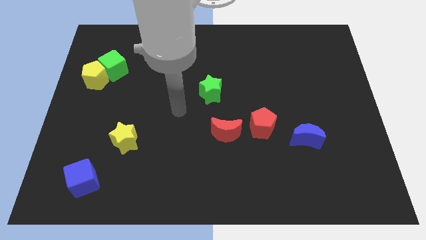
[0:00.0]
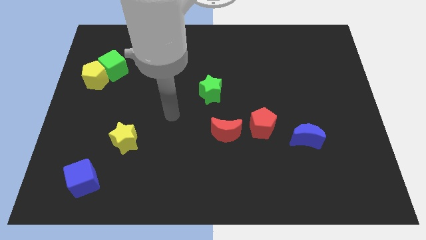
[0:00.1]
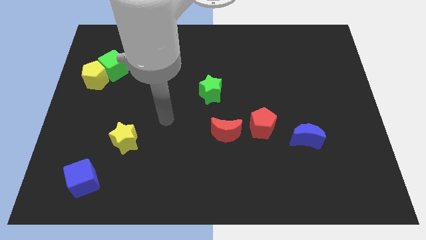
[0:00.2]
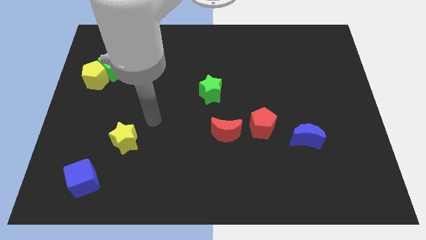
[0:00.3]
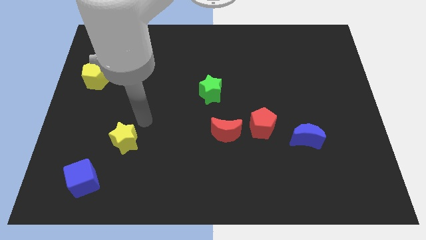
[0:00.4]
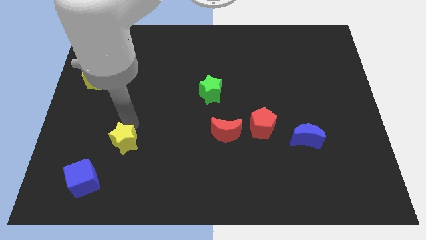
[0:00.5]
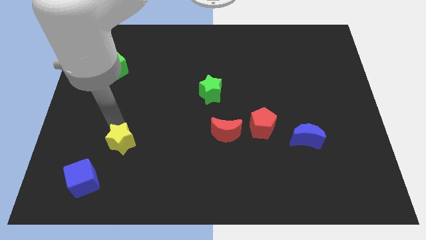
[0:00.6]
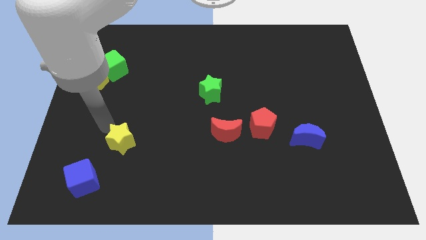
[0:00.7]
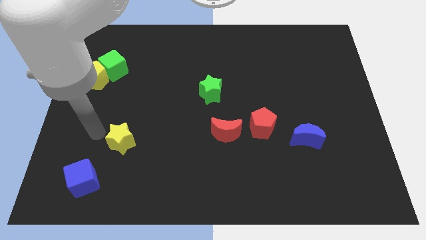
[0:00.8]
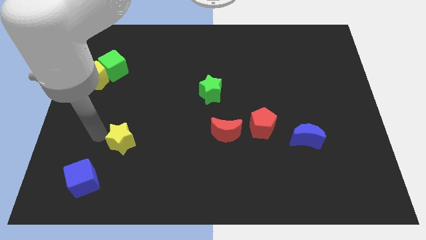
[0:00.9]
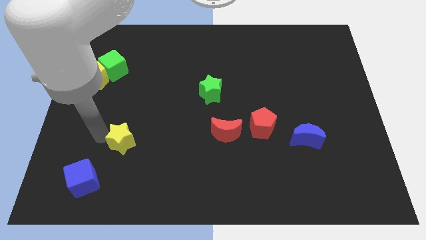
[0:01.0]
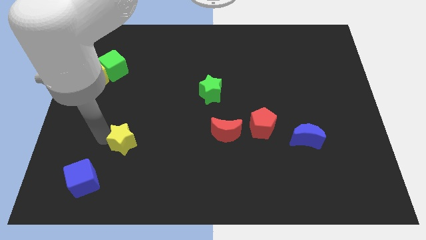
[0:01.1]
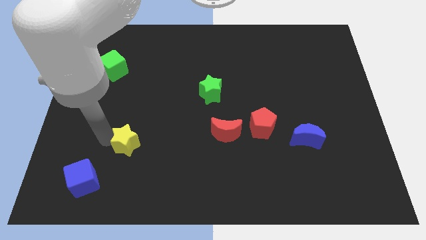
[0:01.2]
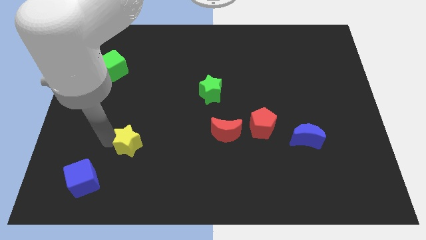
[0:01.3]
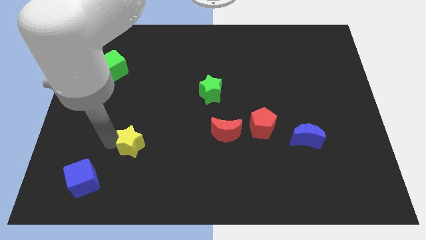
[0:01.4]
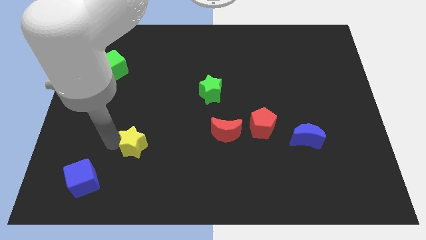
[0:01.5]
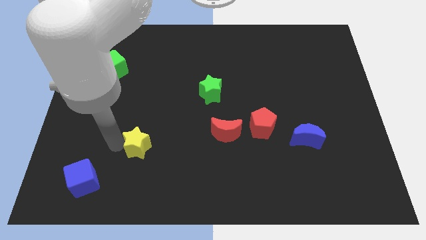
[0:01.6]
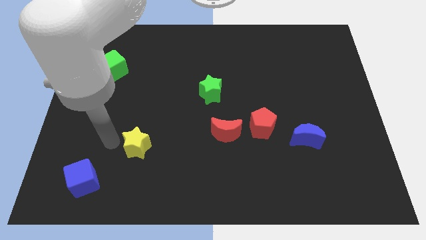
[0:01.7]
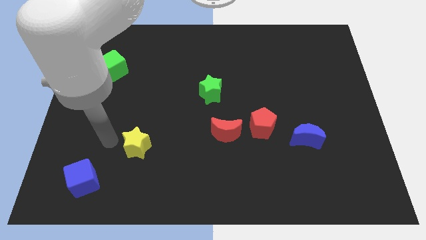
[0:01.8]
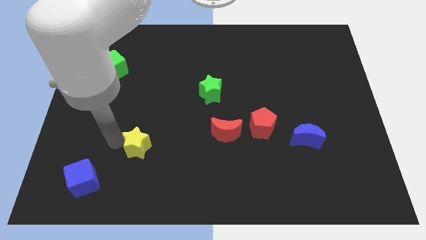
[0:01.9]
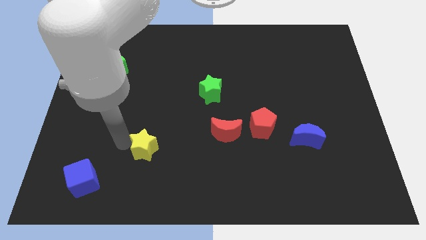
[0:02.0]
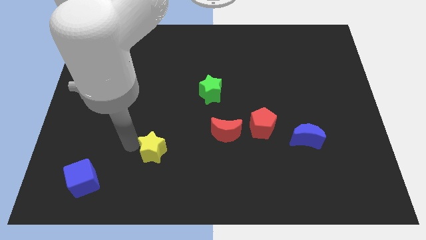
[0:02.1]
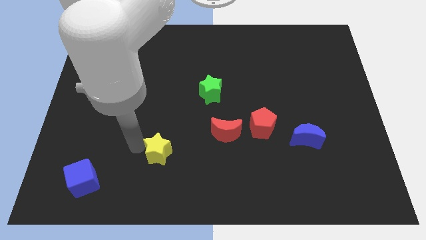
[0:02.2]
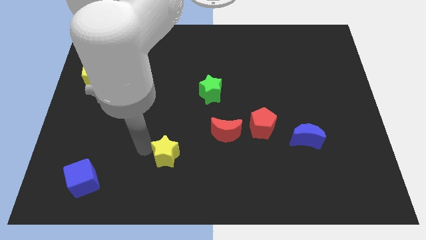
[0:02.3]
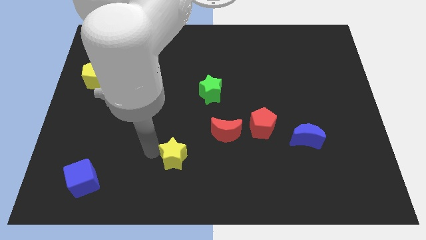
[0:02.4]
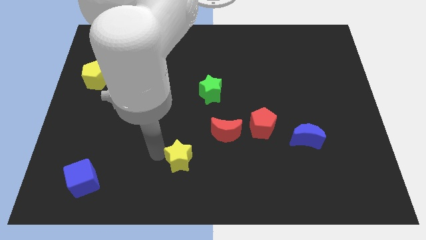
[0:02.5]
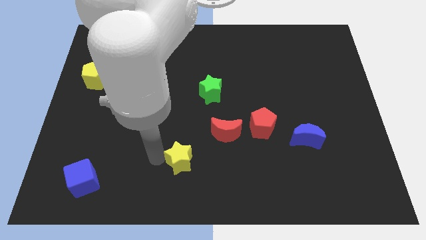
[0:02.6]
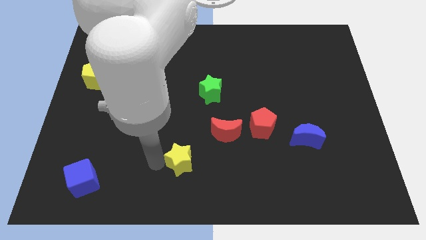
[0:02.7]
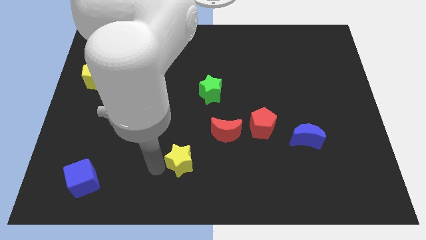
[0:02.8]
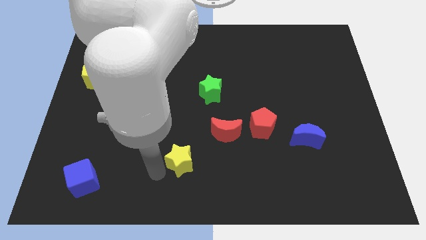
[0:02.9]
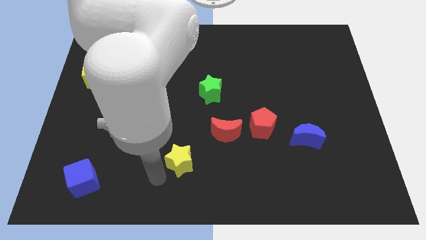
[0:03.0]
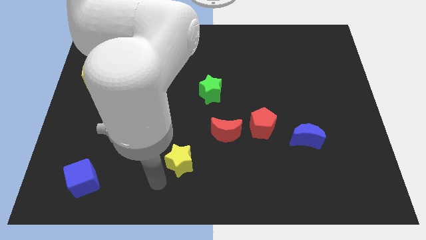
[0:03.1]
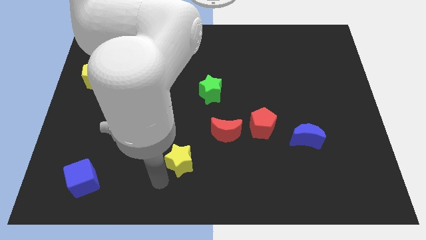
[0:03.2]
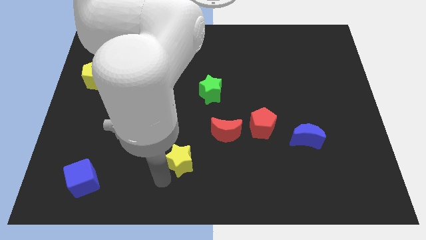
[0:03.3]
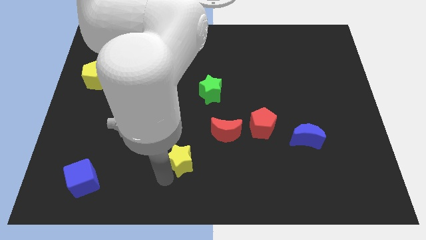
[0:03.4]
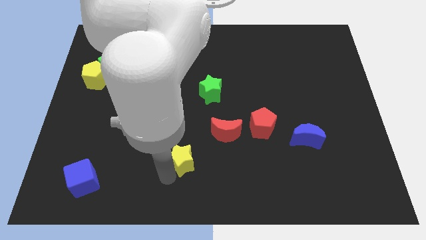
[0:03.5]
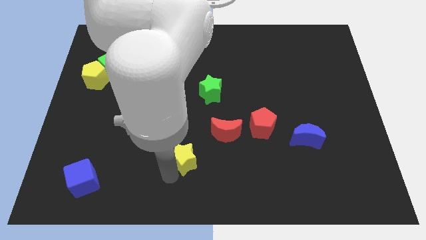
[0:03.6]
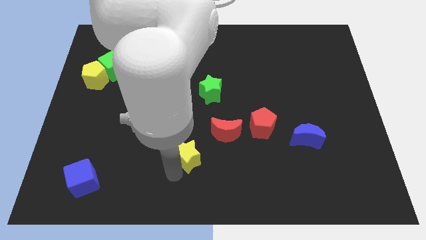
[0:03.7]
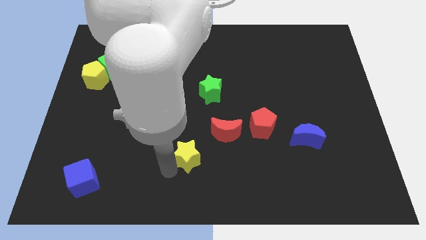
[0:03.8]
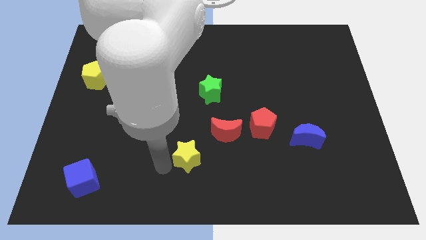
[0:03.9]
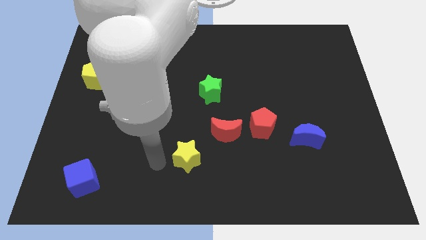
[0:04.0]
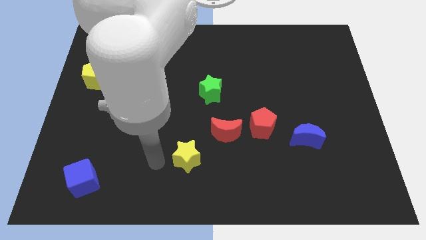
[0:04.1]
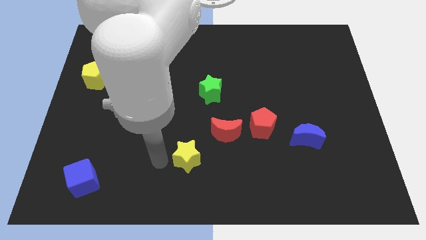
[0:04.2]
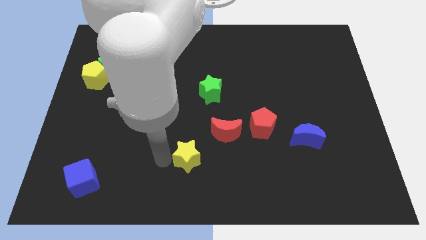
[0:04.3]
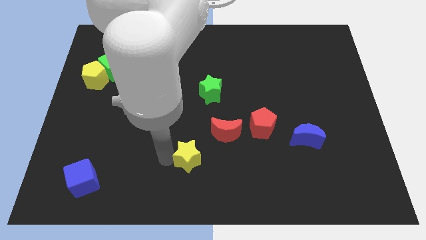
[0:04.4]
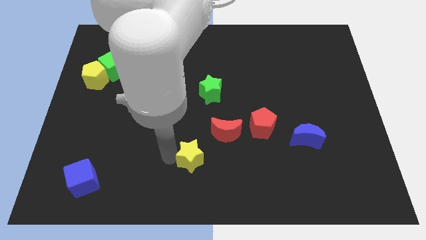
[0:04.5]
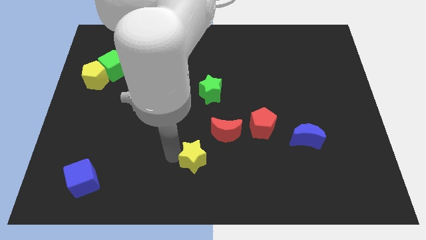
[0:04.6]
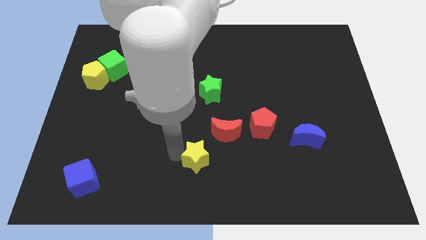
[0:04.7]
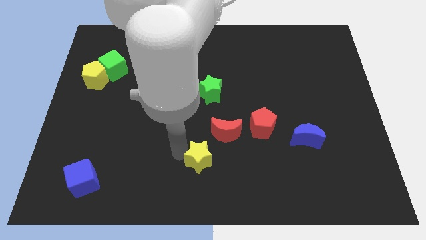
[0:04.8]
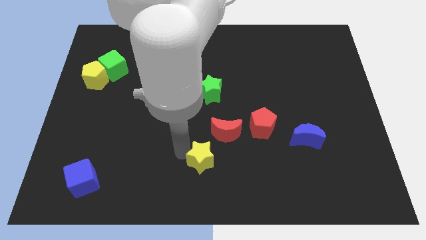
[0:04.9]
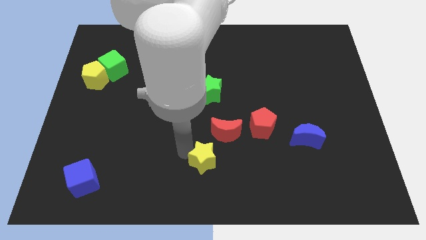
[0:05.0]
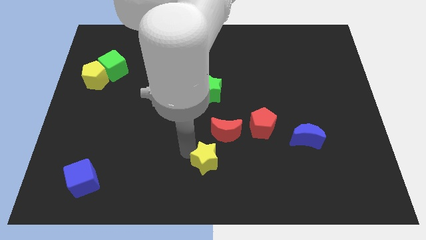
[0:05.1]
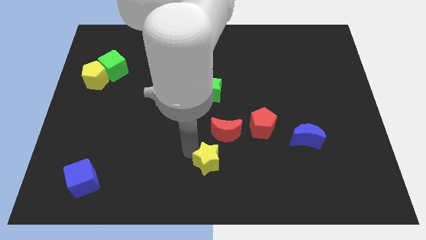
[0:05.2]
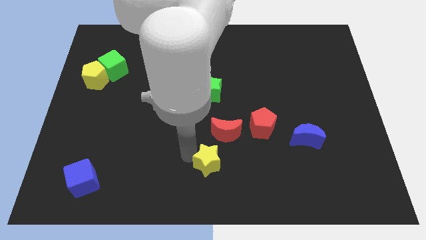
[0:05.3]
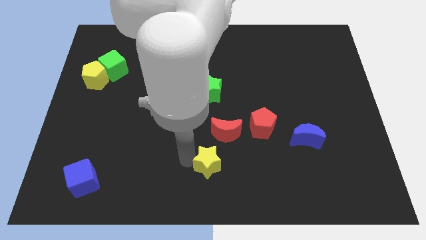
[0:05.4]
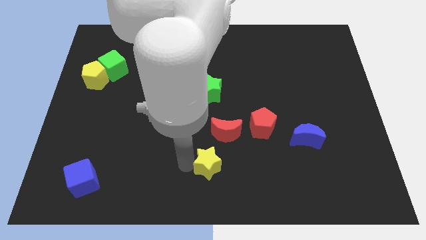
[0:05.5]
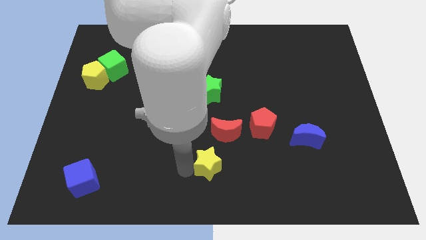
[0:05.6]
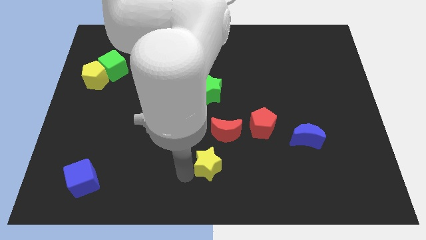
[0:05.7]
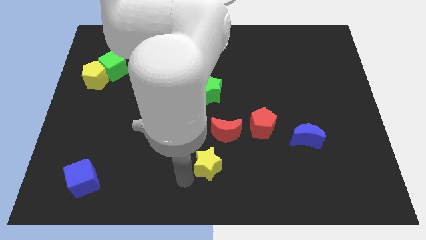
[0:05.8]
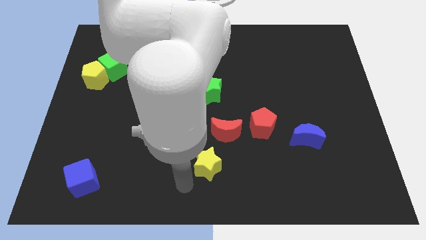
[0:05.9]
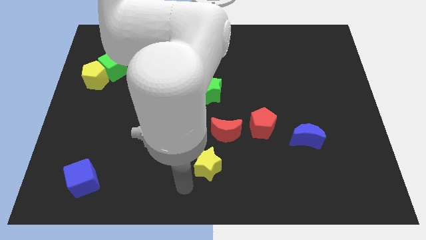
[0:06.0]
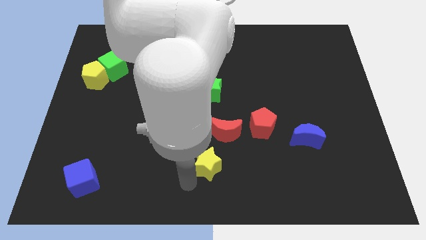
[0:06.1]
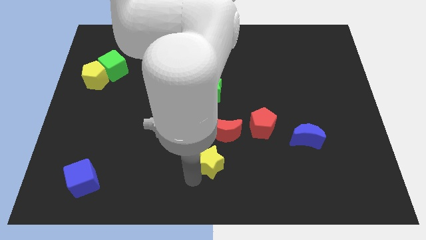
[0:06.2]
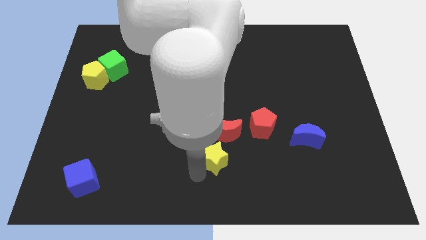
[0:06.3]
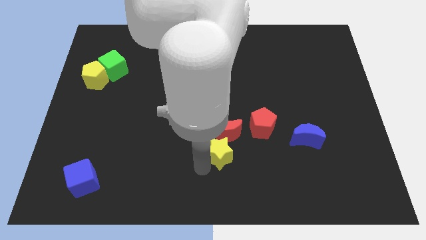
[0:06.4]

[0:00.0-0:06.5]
slide the yellow star to the right

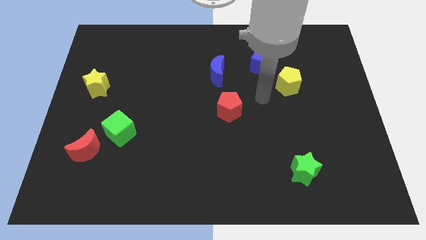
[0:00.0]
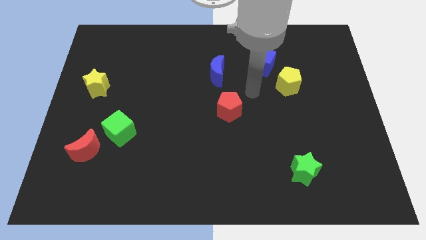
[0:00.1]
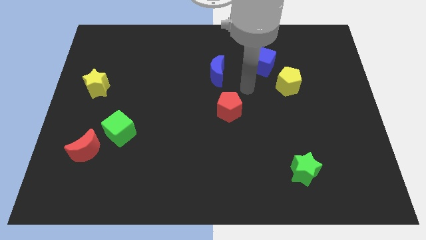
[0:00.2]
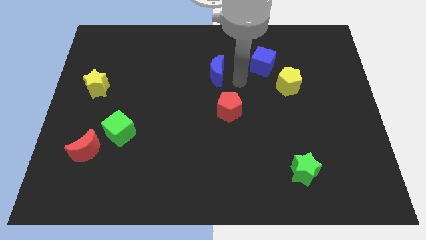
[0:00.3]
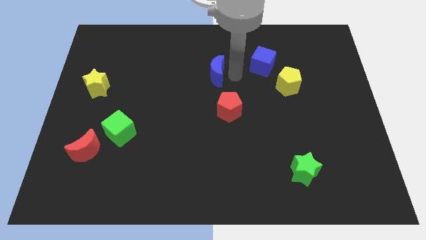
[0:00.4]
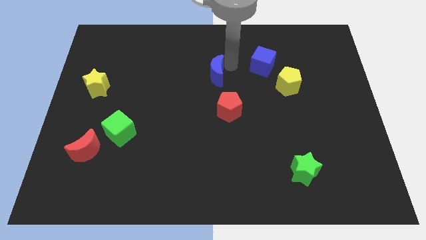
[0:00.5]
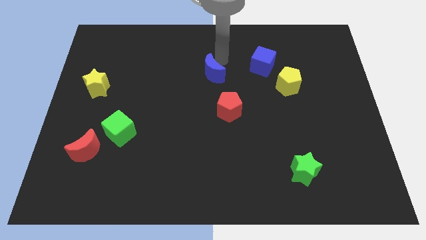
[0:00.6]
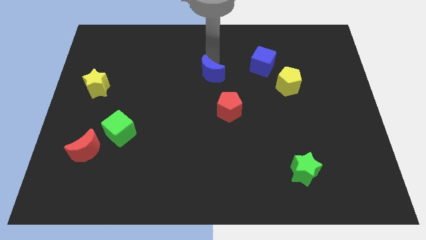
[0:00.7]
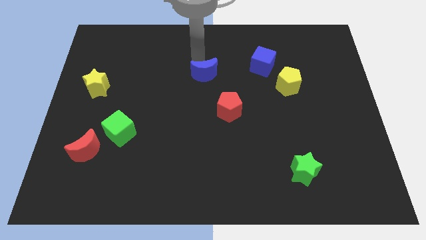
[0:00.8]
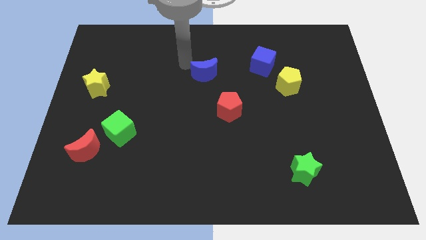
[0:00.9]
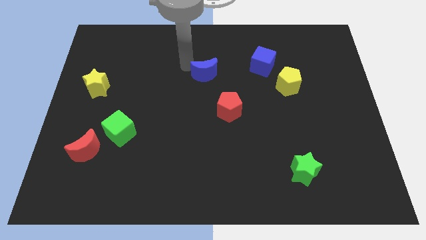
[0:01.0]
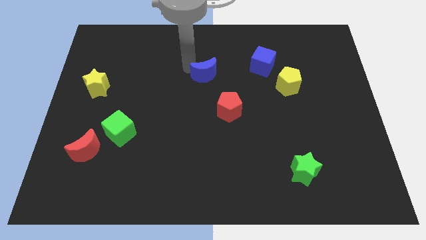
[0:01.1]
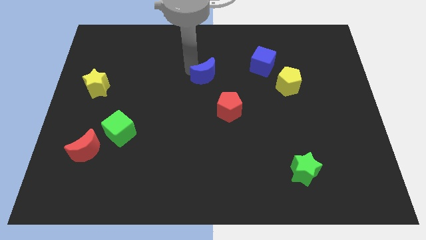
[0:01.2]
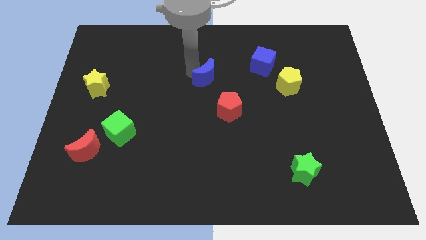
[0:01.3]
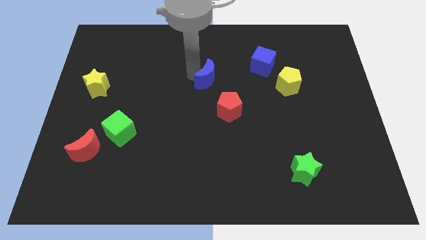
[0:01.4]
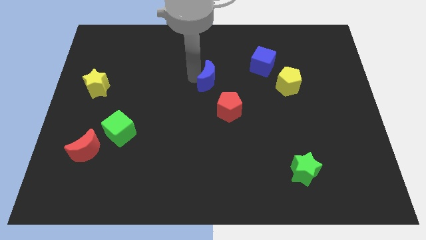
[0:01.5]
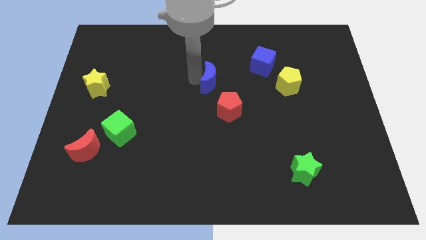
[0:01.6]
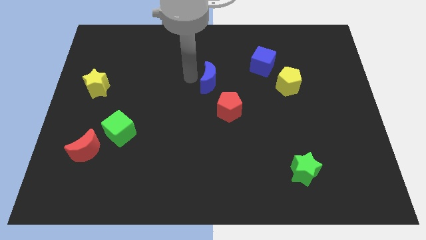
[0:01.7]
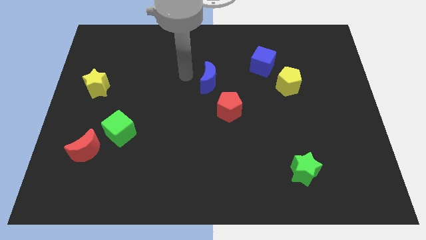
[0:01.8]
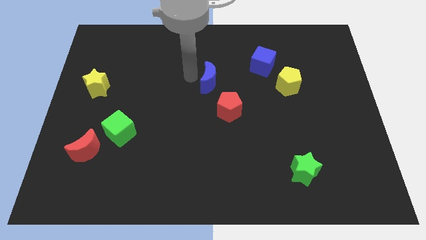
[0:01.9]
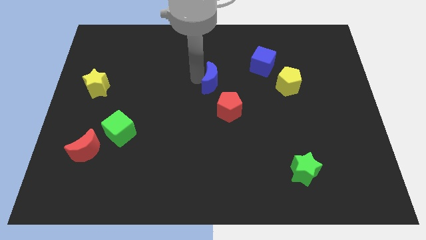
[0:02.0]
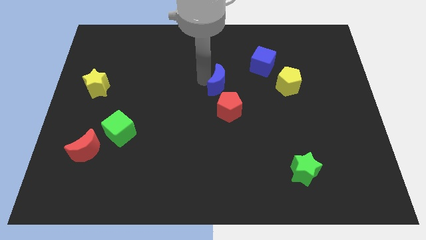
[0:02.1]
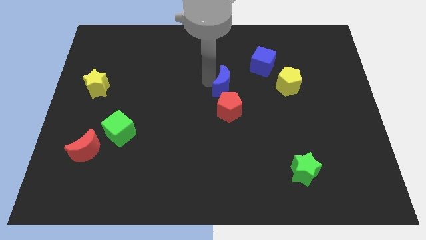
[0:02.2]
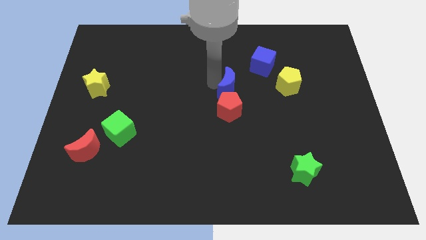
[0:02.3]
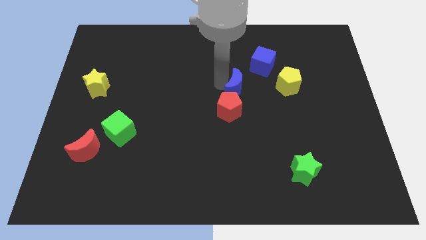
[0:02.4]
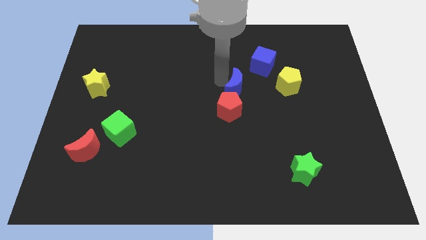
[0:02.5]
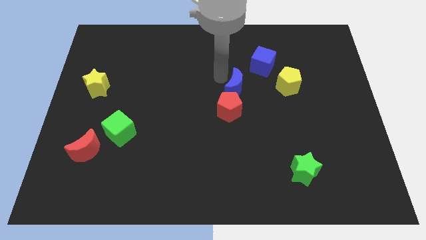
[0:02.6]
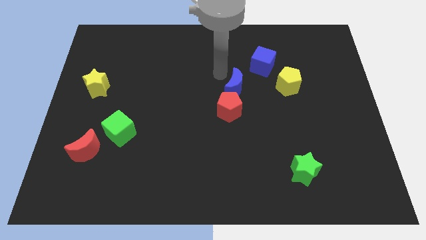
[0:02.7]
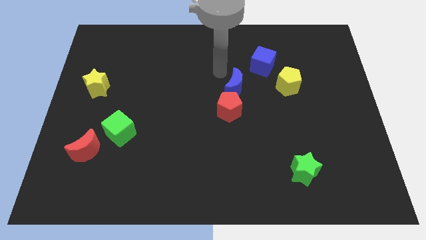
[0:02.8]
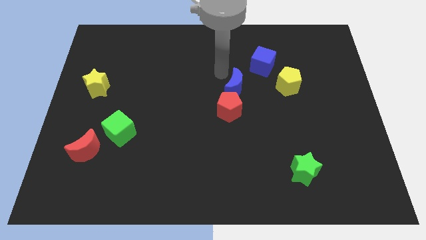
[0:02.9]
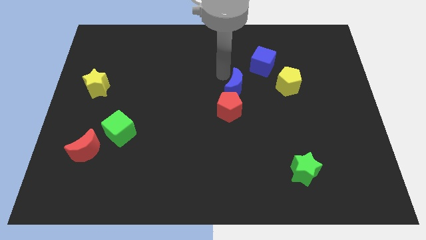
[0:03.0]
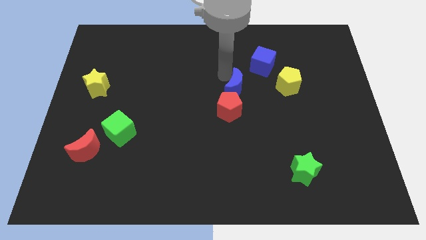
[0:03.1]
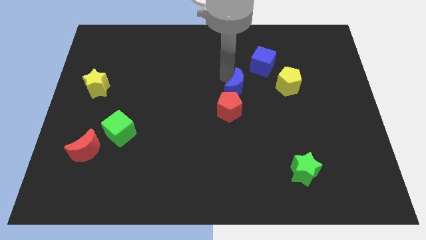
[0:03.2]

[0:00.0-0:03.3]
move the blue moon diagonally down and to the right somewhat
